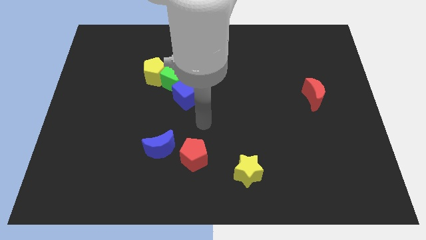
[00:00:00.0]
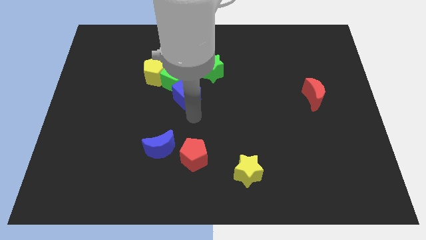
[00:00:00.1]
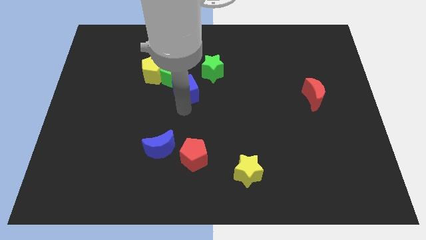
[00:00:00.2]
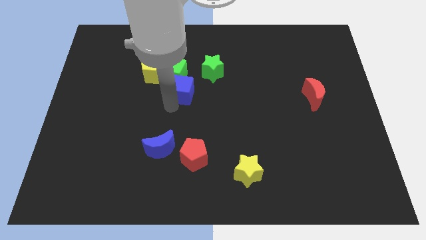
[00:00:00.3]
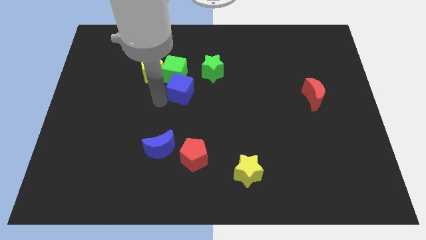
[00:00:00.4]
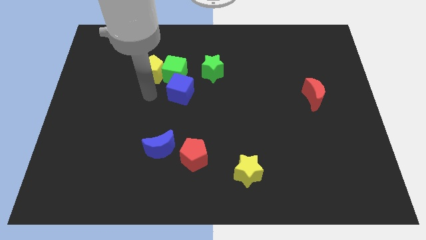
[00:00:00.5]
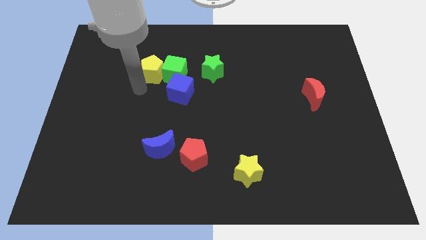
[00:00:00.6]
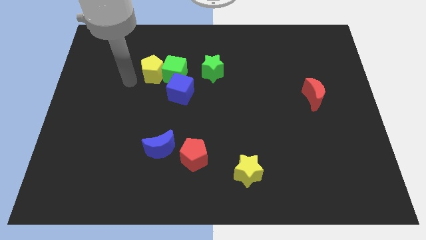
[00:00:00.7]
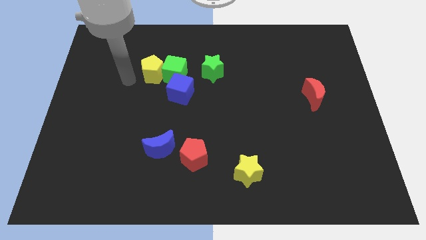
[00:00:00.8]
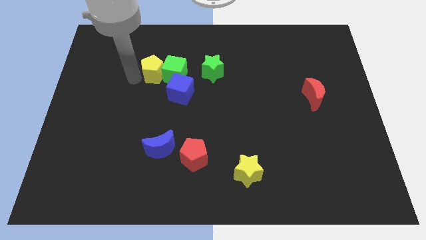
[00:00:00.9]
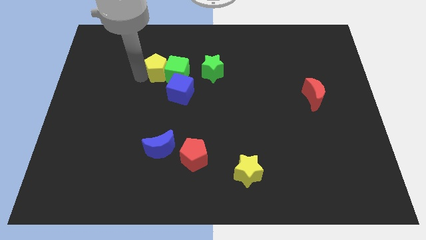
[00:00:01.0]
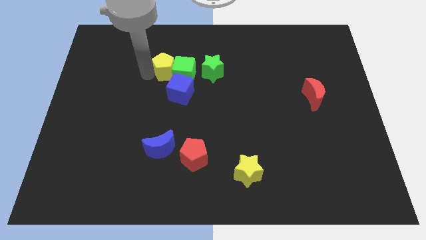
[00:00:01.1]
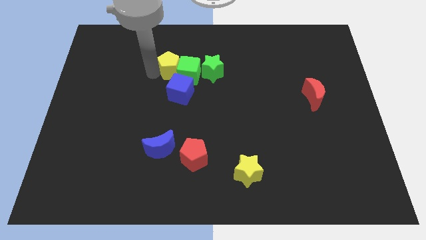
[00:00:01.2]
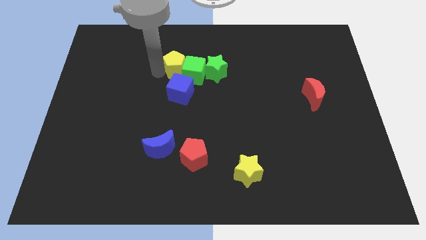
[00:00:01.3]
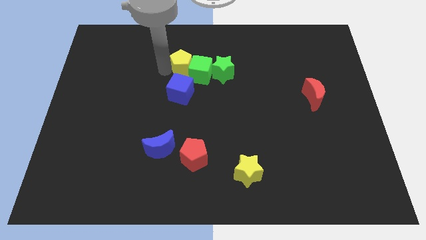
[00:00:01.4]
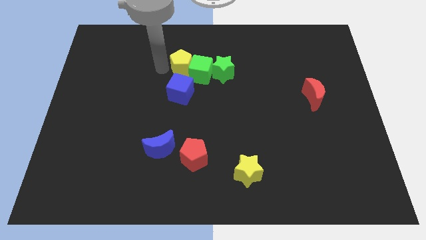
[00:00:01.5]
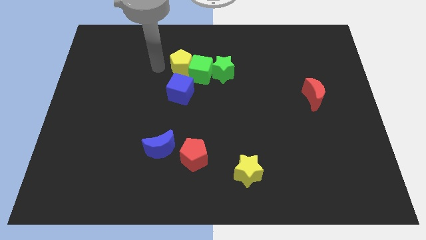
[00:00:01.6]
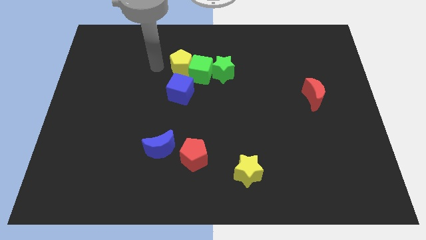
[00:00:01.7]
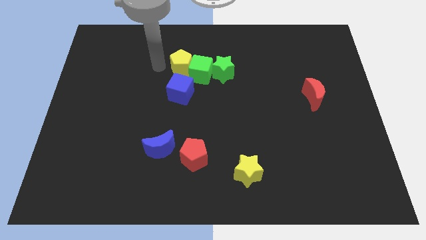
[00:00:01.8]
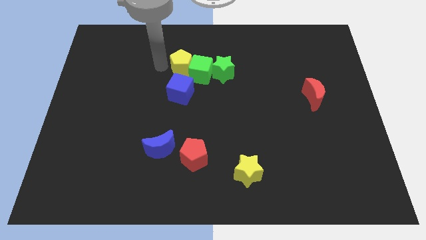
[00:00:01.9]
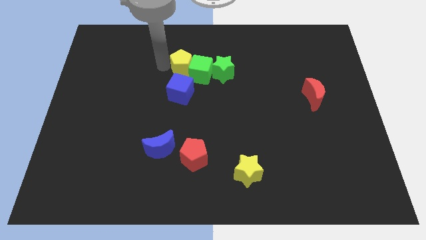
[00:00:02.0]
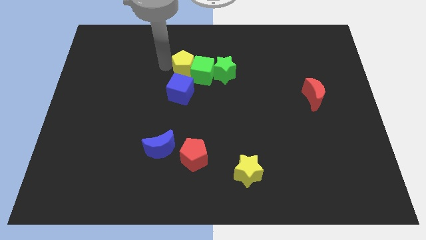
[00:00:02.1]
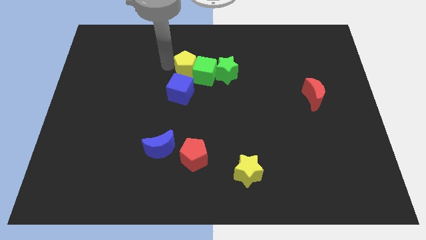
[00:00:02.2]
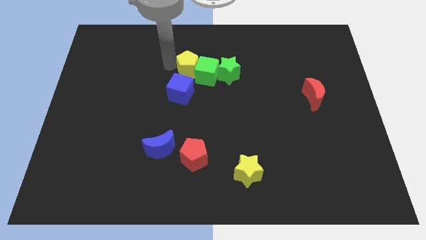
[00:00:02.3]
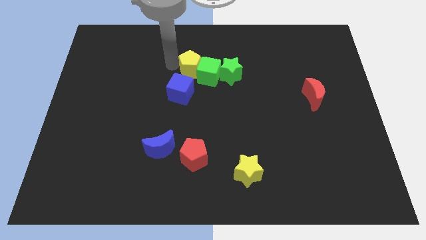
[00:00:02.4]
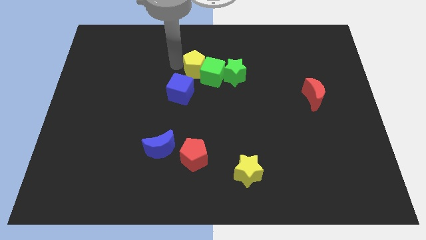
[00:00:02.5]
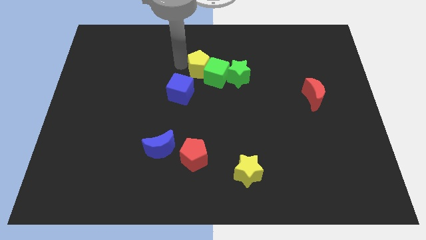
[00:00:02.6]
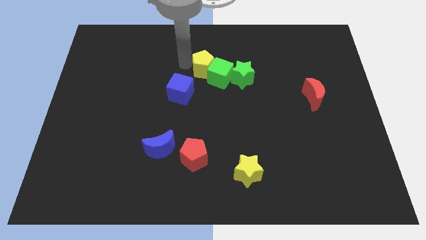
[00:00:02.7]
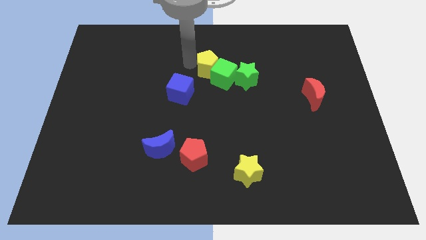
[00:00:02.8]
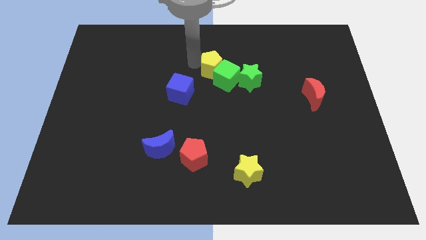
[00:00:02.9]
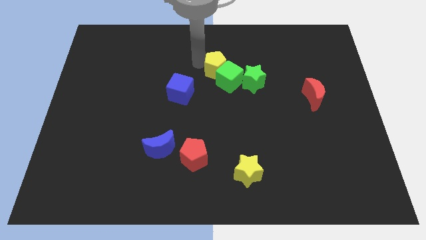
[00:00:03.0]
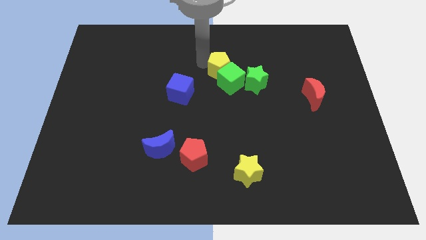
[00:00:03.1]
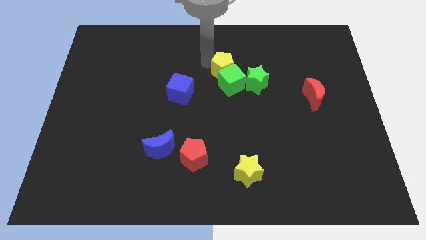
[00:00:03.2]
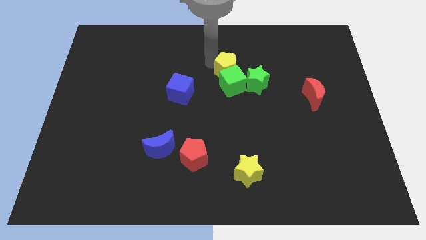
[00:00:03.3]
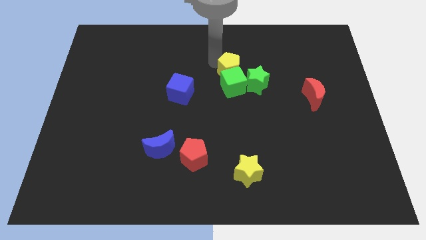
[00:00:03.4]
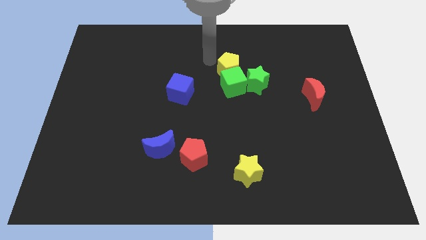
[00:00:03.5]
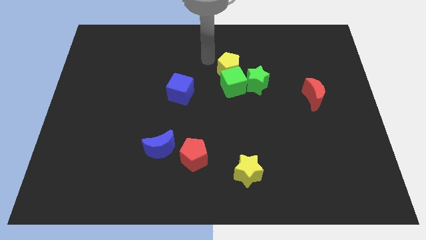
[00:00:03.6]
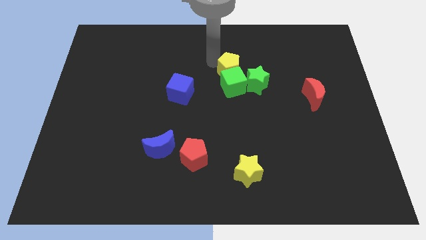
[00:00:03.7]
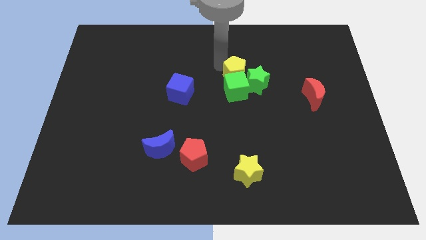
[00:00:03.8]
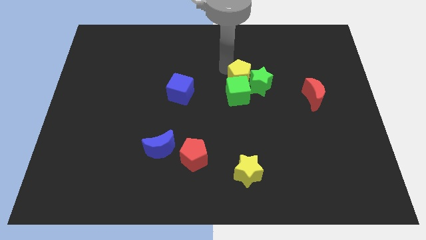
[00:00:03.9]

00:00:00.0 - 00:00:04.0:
push the yellow pentagon to the green star

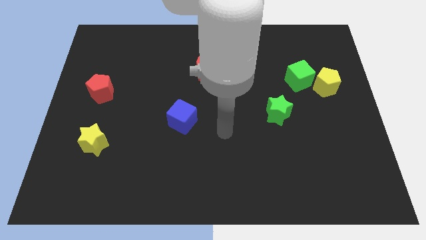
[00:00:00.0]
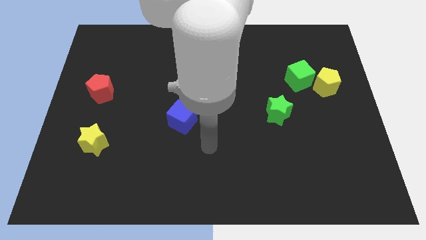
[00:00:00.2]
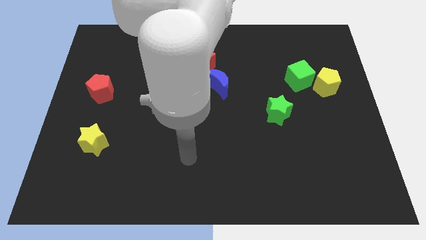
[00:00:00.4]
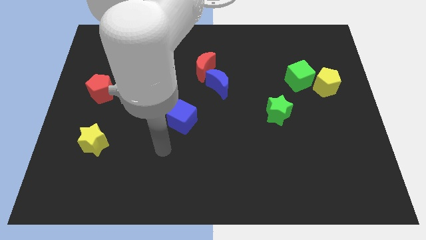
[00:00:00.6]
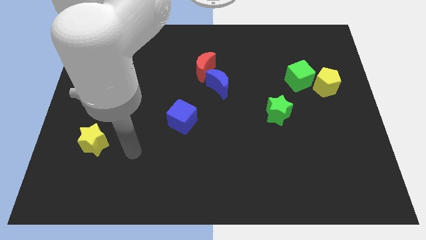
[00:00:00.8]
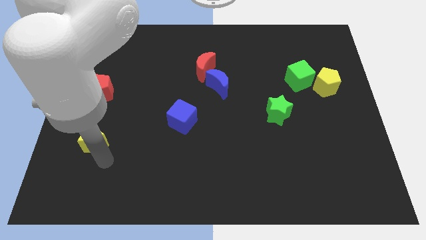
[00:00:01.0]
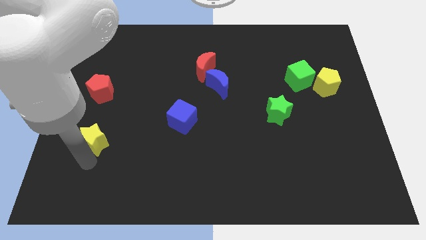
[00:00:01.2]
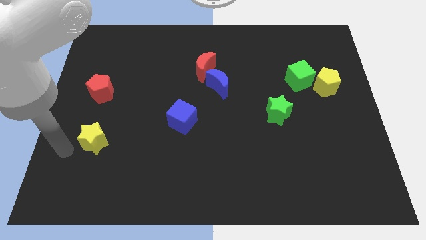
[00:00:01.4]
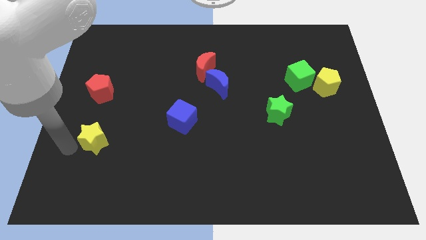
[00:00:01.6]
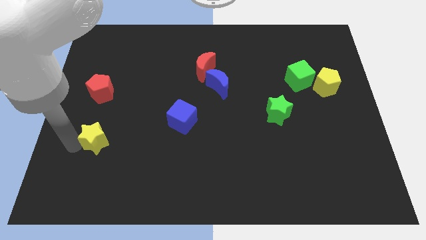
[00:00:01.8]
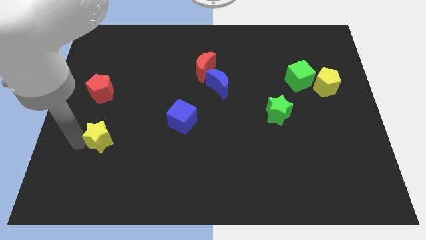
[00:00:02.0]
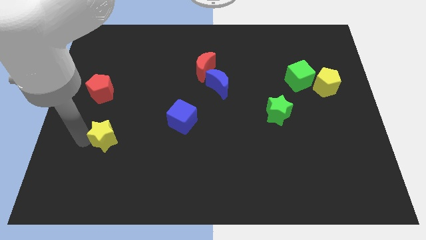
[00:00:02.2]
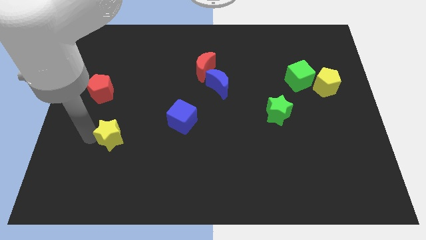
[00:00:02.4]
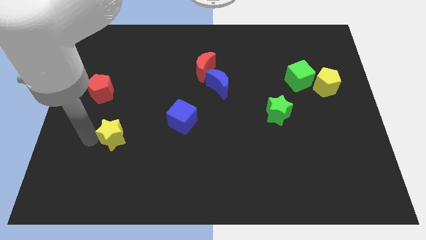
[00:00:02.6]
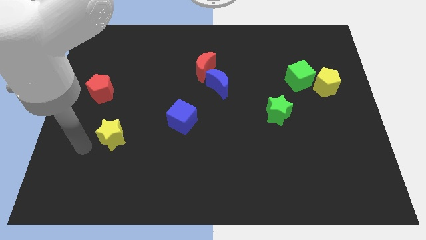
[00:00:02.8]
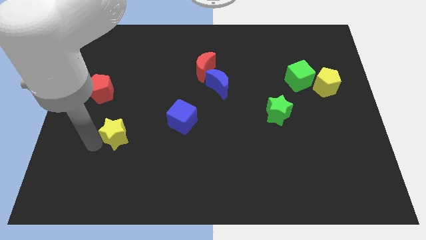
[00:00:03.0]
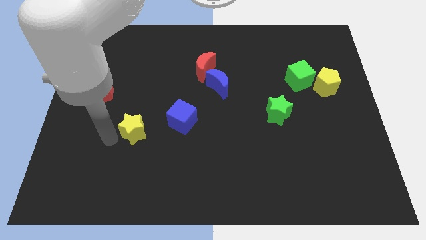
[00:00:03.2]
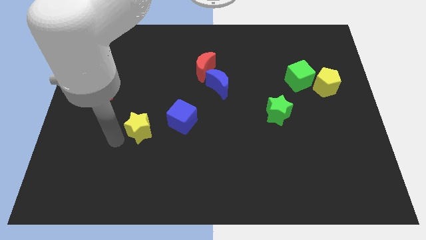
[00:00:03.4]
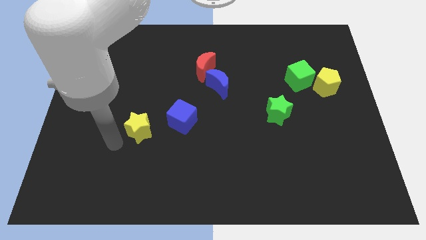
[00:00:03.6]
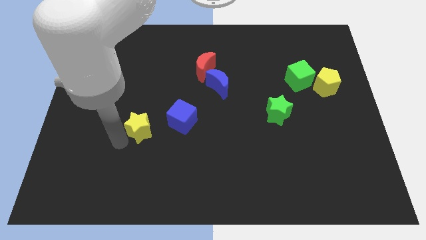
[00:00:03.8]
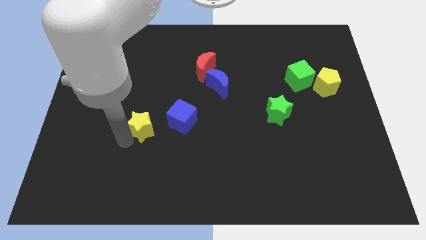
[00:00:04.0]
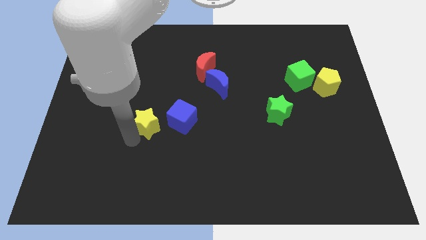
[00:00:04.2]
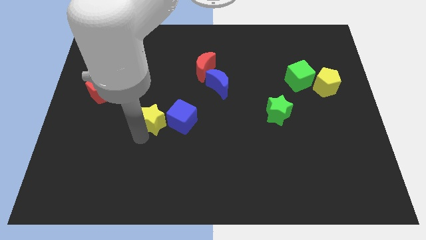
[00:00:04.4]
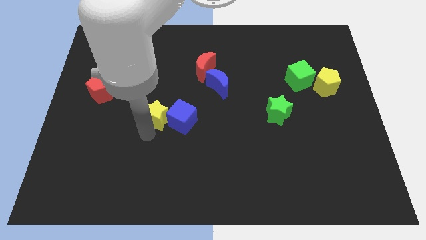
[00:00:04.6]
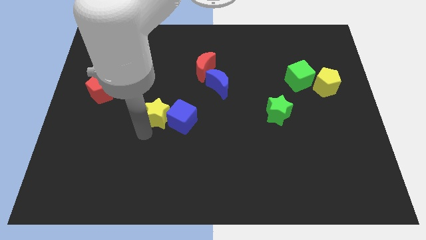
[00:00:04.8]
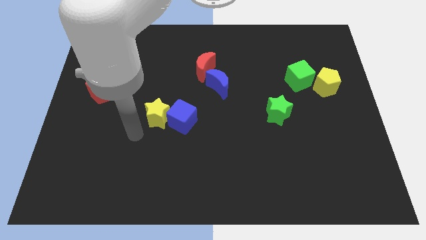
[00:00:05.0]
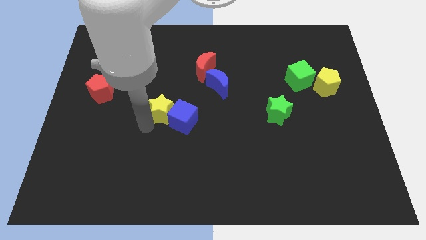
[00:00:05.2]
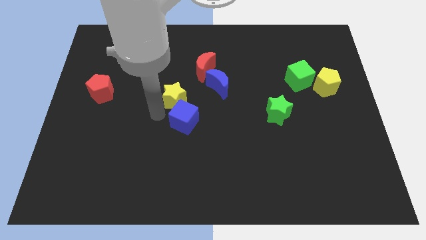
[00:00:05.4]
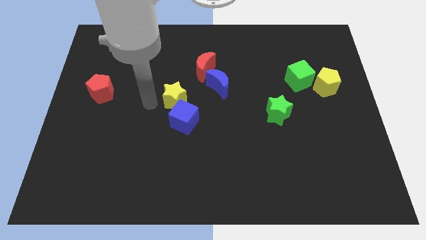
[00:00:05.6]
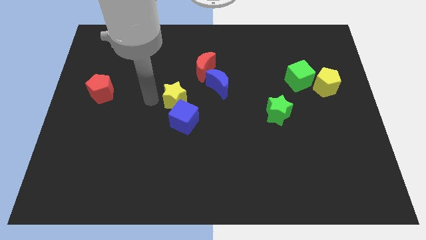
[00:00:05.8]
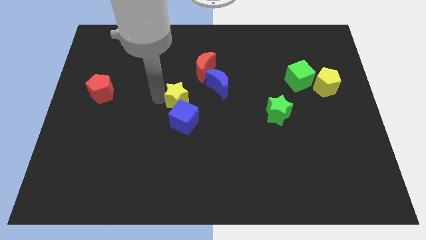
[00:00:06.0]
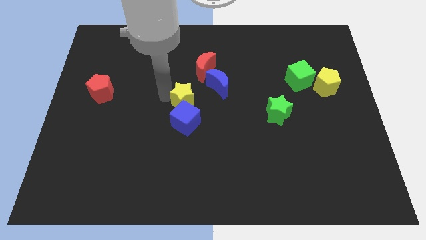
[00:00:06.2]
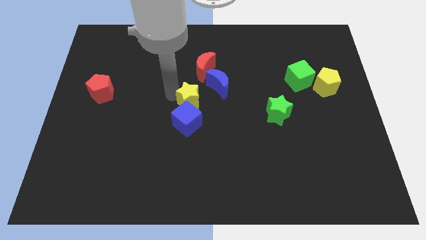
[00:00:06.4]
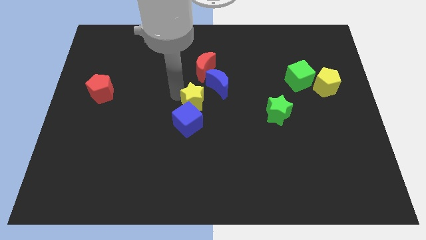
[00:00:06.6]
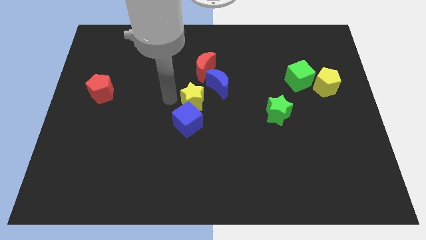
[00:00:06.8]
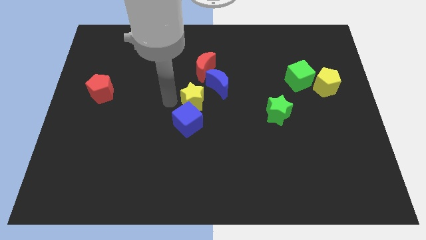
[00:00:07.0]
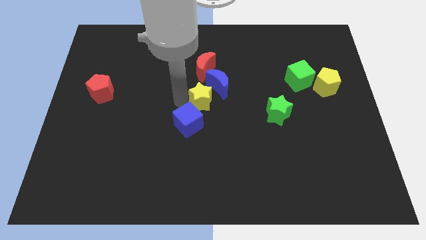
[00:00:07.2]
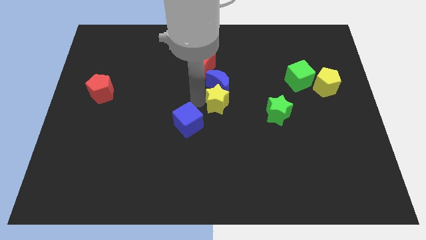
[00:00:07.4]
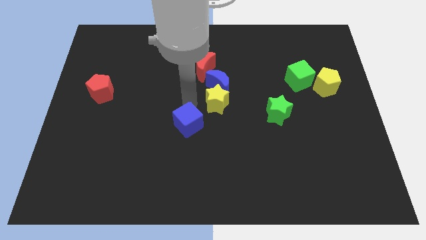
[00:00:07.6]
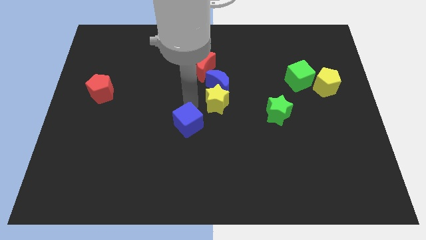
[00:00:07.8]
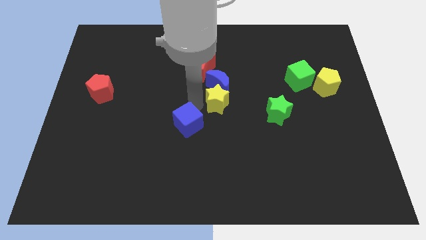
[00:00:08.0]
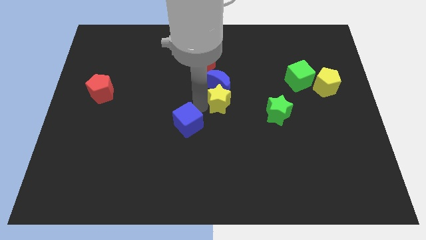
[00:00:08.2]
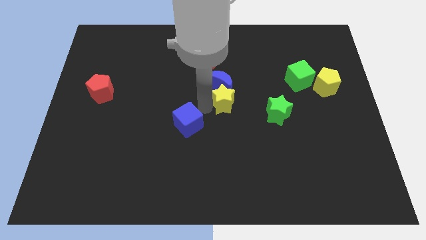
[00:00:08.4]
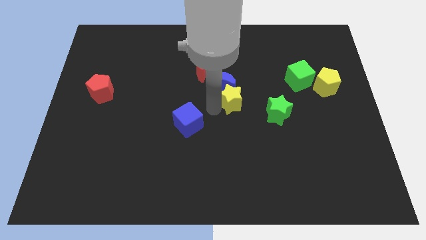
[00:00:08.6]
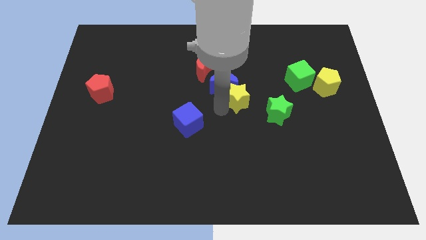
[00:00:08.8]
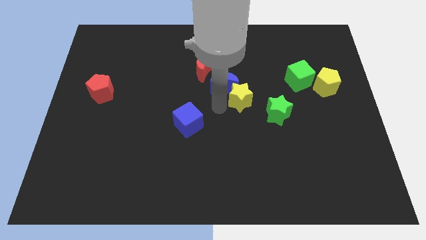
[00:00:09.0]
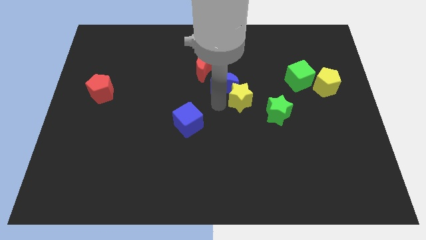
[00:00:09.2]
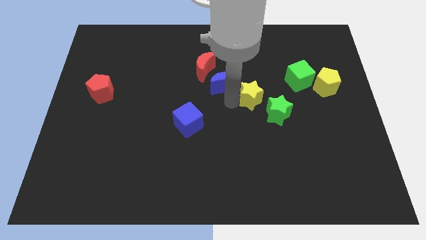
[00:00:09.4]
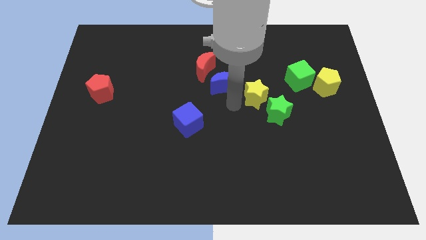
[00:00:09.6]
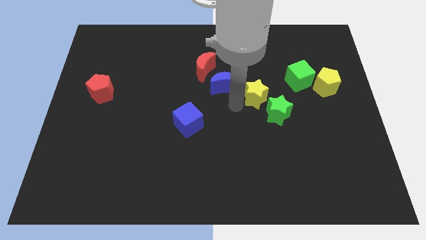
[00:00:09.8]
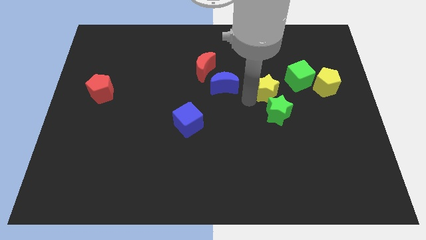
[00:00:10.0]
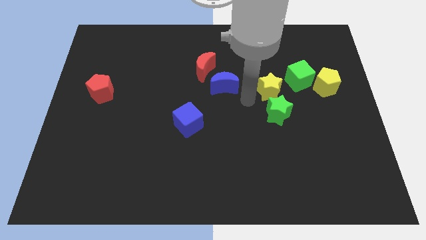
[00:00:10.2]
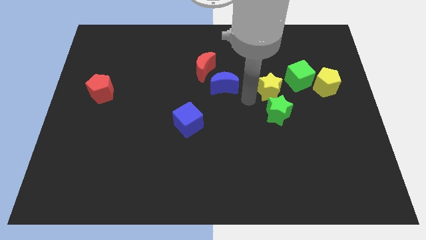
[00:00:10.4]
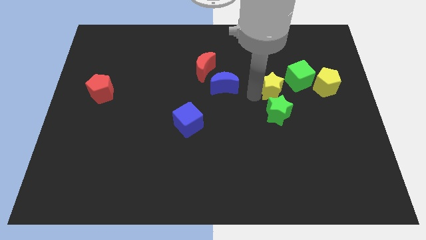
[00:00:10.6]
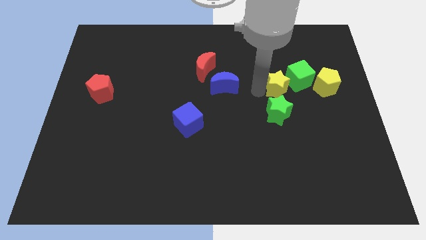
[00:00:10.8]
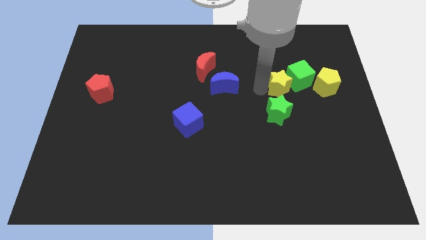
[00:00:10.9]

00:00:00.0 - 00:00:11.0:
slide the yellow star towards the green cube
